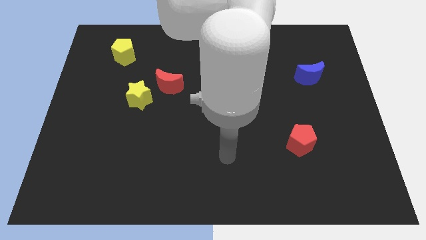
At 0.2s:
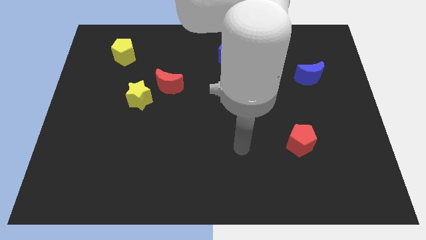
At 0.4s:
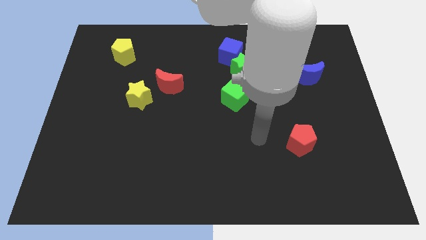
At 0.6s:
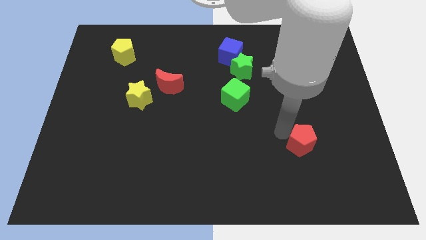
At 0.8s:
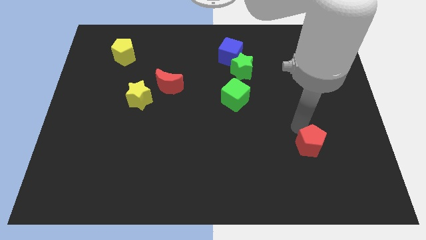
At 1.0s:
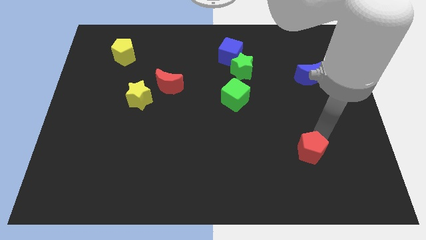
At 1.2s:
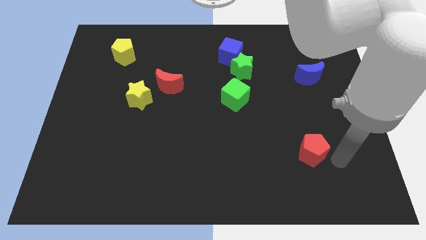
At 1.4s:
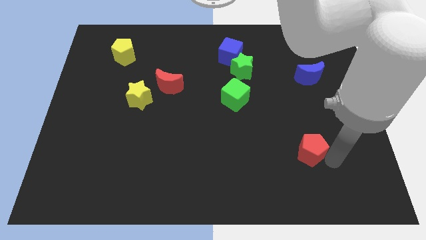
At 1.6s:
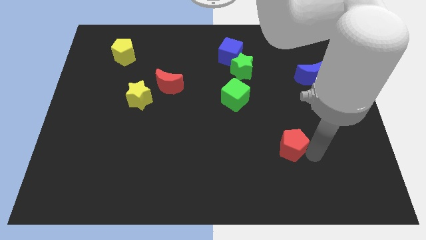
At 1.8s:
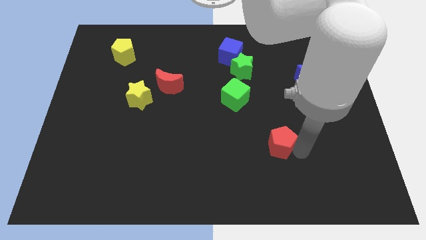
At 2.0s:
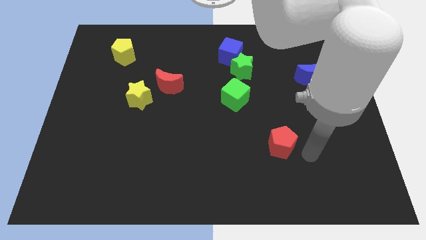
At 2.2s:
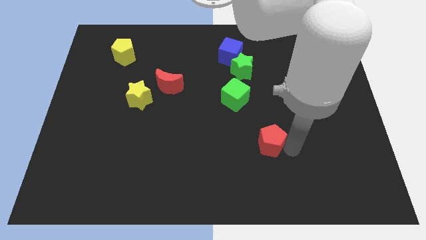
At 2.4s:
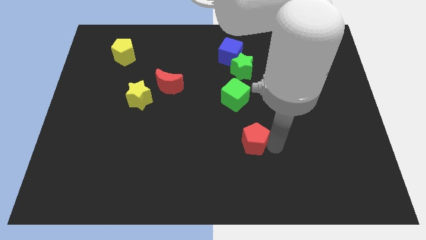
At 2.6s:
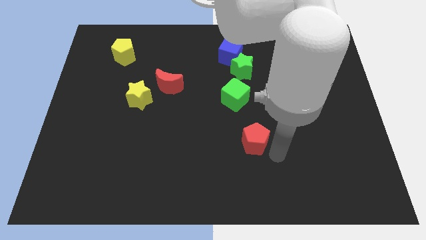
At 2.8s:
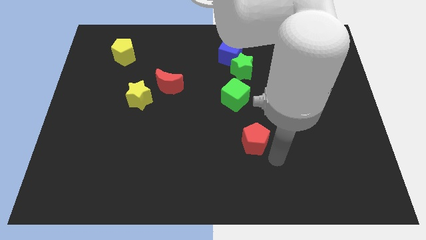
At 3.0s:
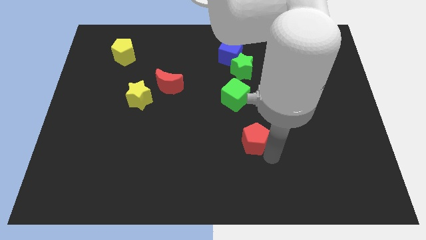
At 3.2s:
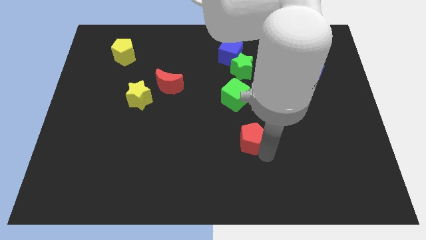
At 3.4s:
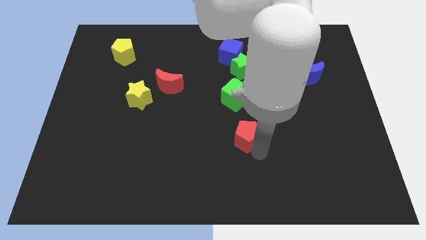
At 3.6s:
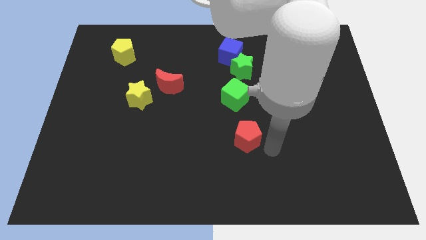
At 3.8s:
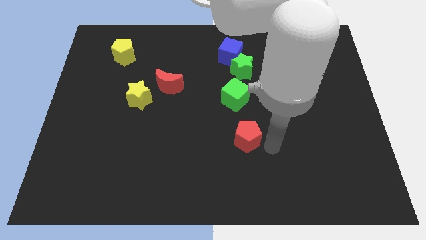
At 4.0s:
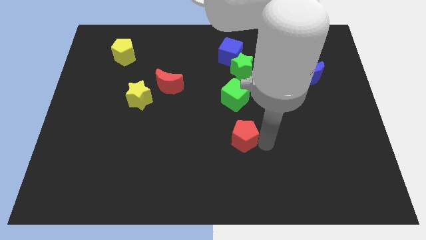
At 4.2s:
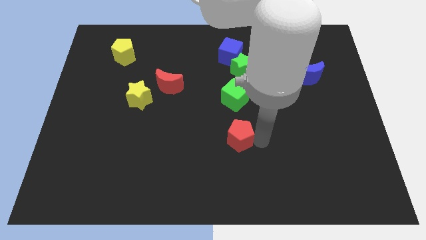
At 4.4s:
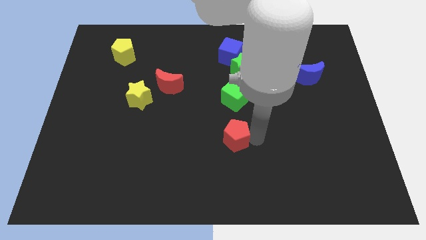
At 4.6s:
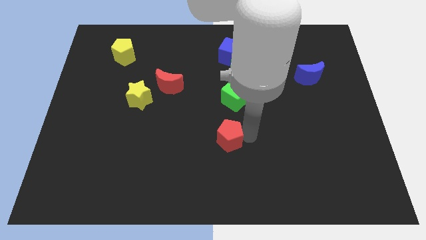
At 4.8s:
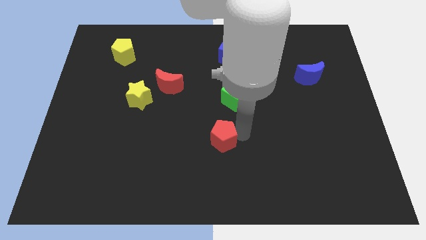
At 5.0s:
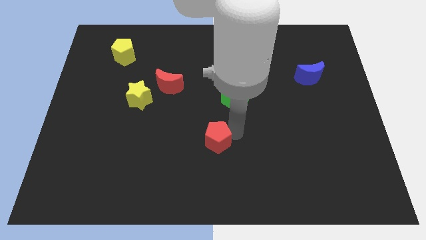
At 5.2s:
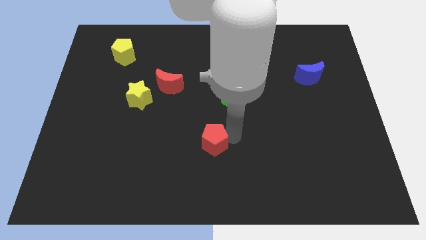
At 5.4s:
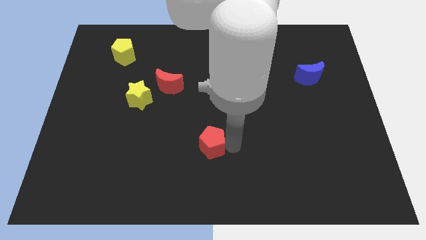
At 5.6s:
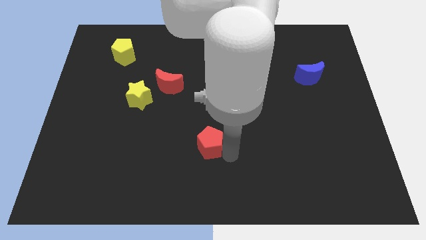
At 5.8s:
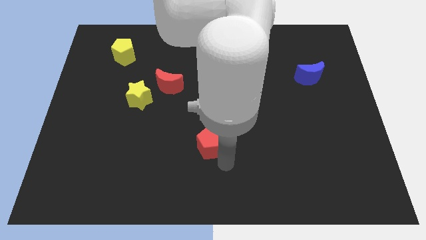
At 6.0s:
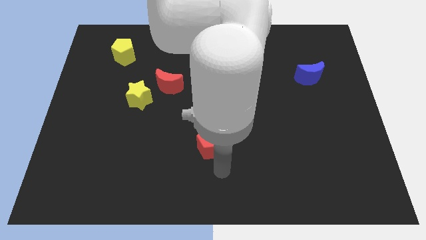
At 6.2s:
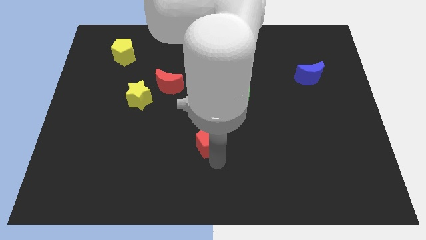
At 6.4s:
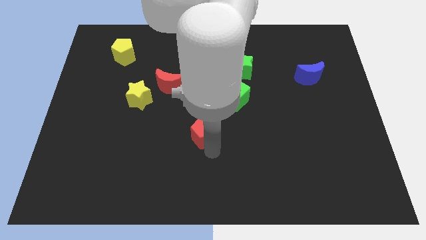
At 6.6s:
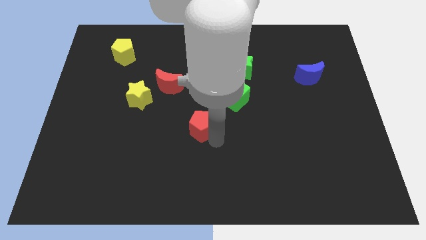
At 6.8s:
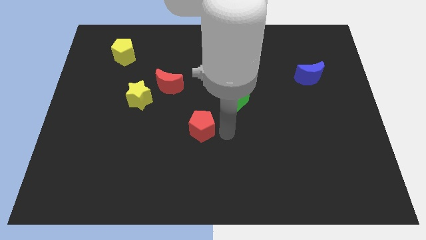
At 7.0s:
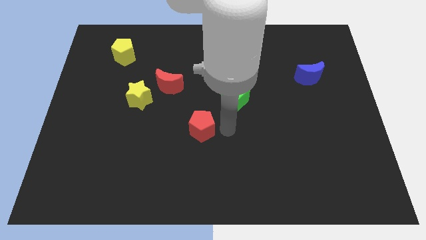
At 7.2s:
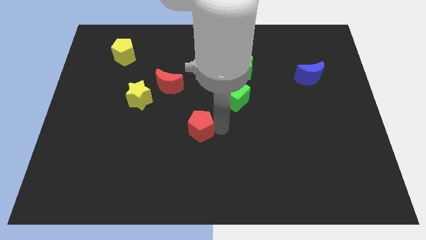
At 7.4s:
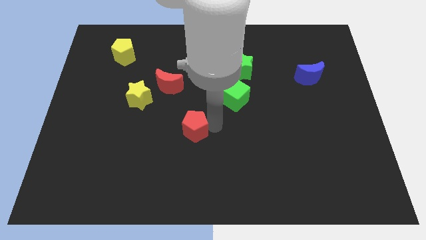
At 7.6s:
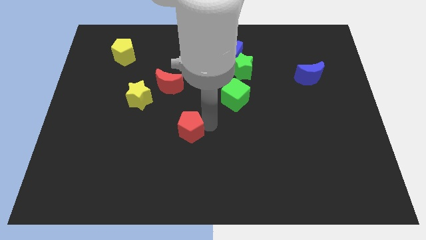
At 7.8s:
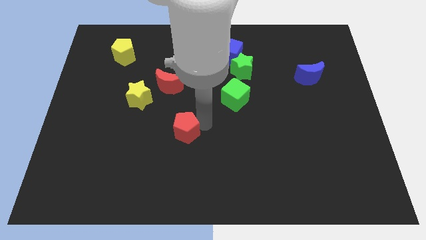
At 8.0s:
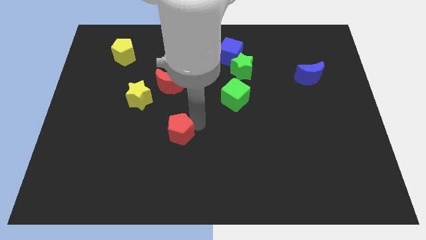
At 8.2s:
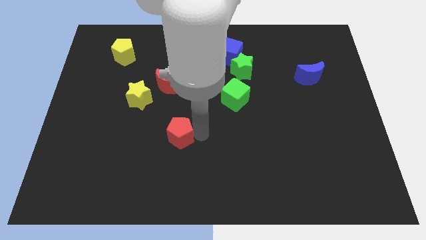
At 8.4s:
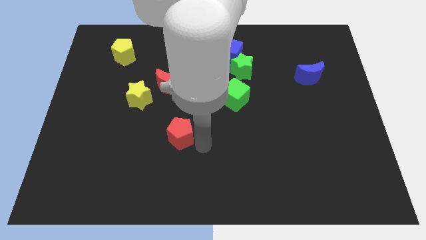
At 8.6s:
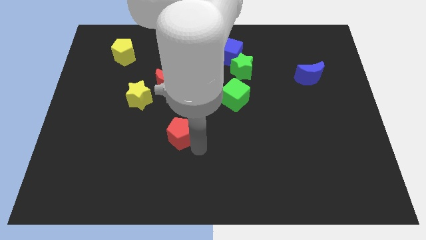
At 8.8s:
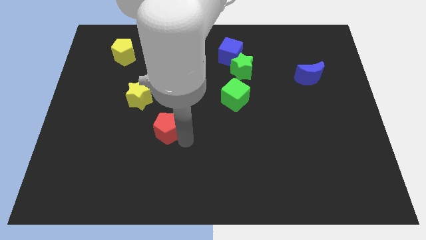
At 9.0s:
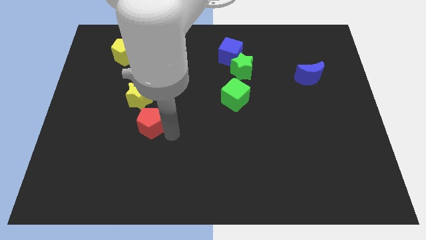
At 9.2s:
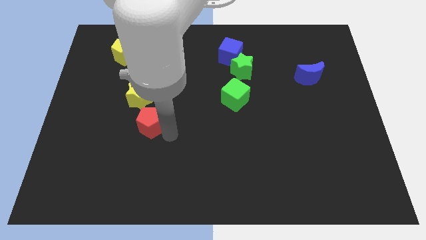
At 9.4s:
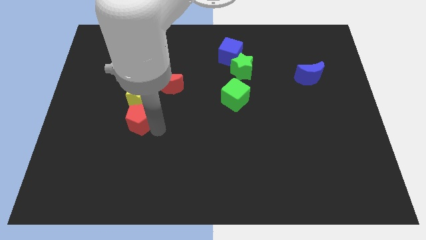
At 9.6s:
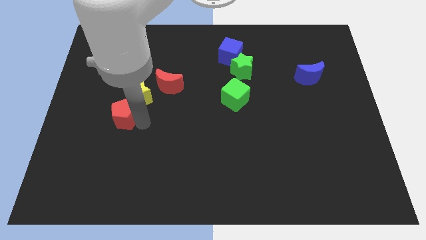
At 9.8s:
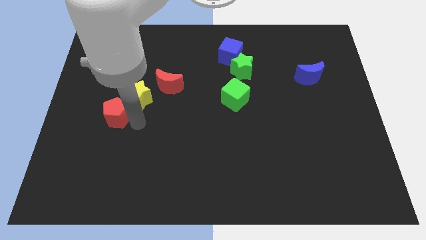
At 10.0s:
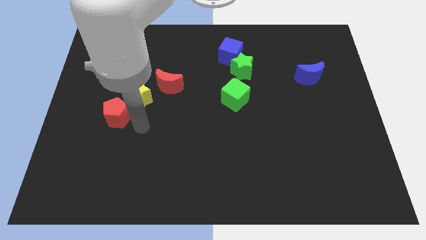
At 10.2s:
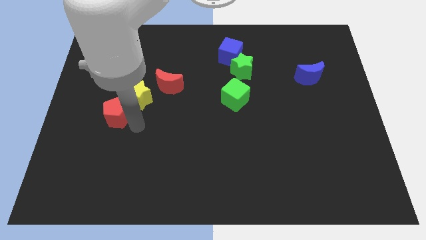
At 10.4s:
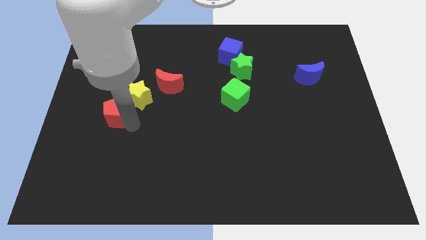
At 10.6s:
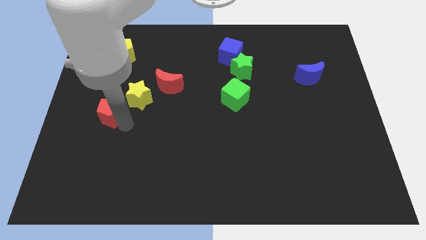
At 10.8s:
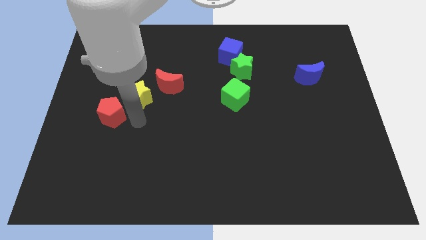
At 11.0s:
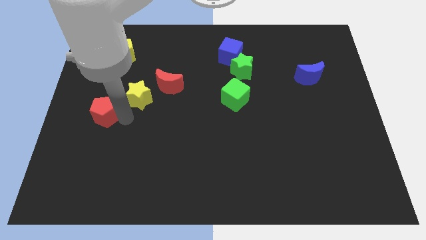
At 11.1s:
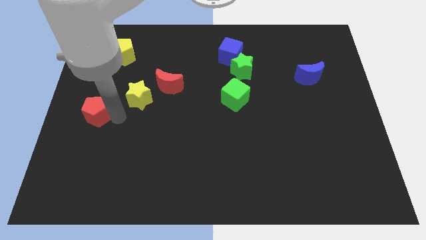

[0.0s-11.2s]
slide the red pentagon to the left side

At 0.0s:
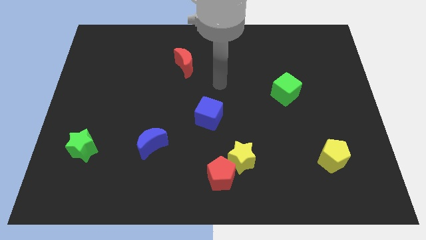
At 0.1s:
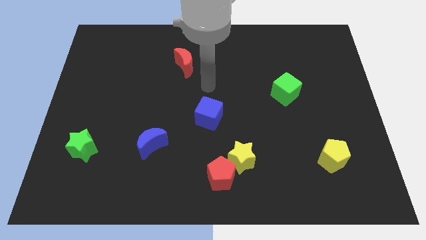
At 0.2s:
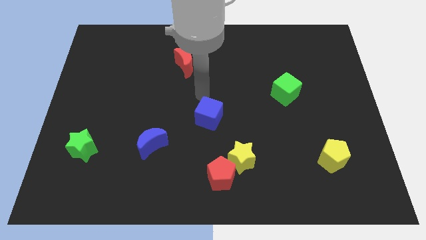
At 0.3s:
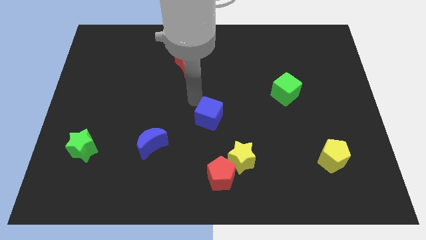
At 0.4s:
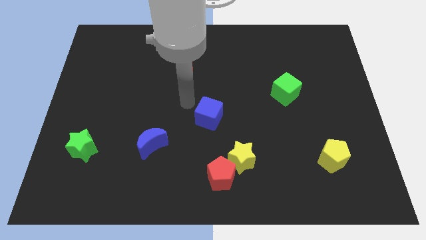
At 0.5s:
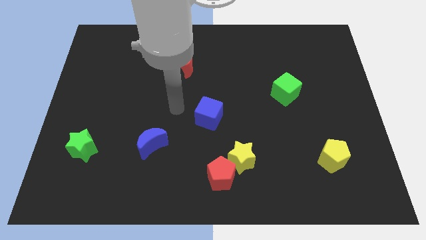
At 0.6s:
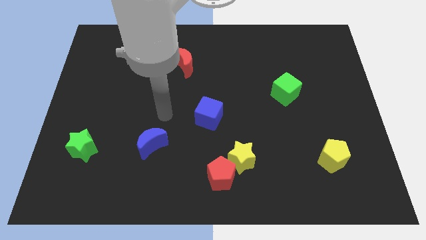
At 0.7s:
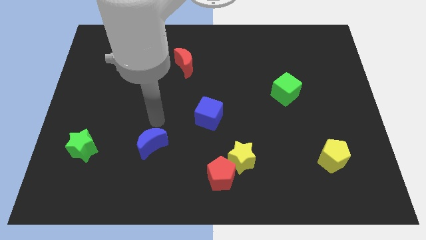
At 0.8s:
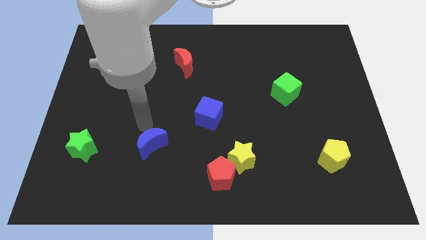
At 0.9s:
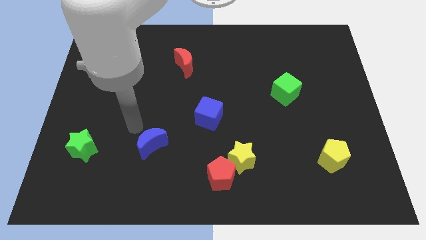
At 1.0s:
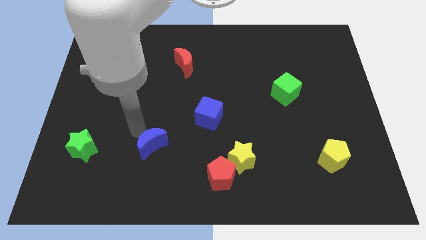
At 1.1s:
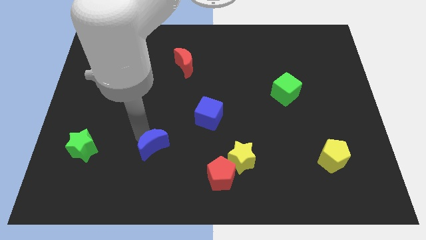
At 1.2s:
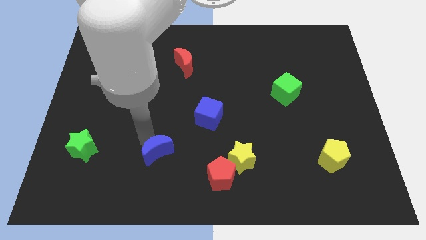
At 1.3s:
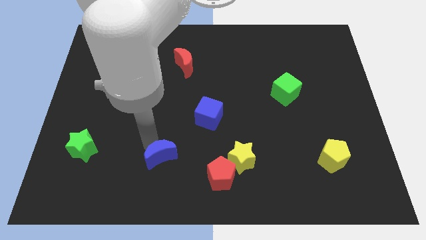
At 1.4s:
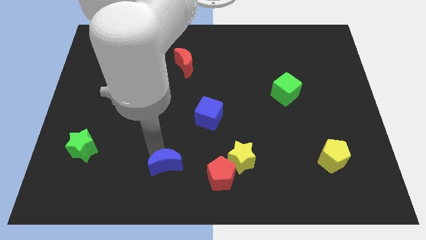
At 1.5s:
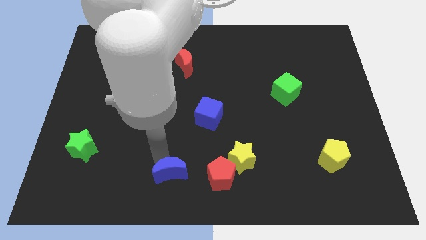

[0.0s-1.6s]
move the blue moon to the bottom

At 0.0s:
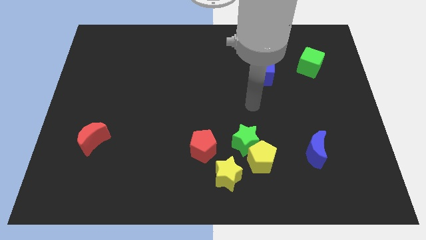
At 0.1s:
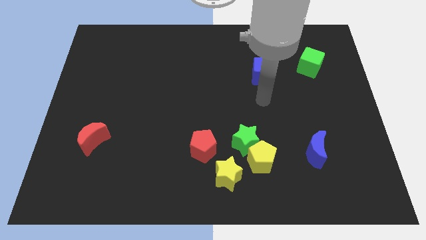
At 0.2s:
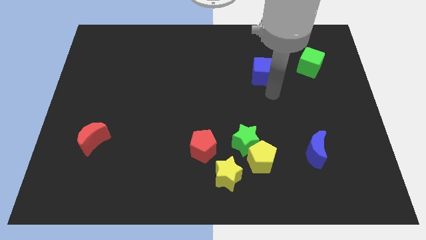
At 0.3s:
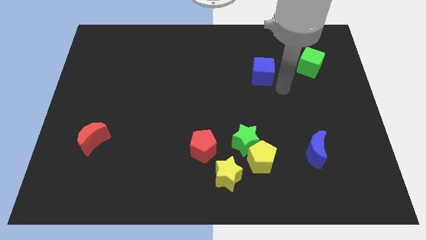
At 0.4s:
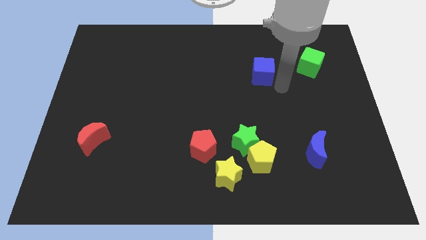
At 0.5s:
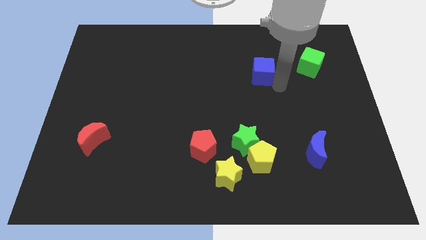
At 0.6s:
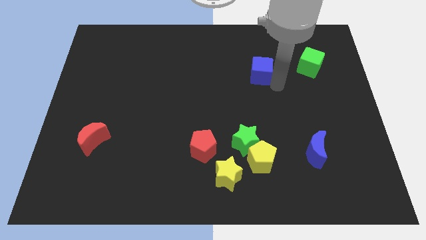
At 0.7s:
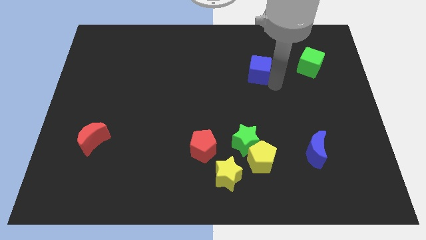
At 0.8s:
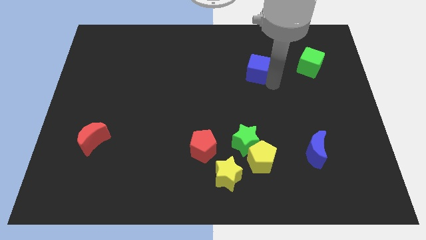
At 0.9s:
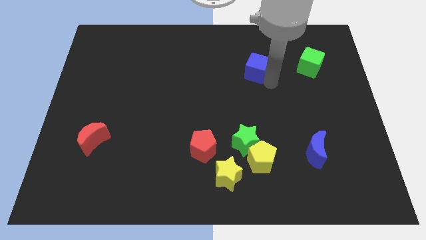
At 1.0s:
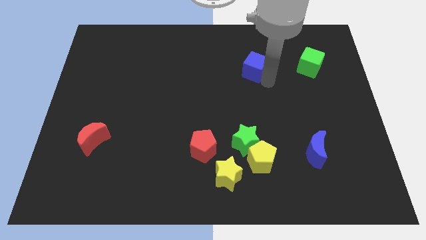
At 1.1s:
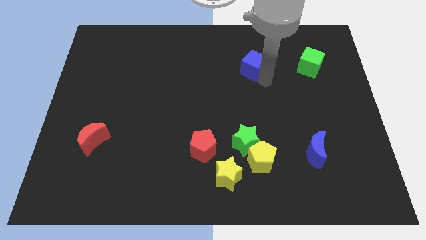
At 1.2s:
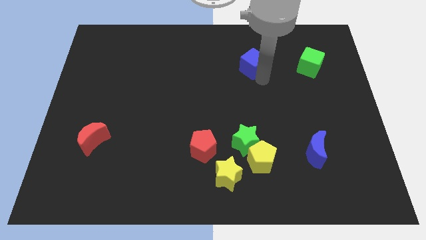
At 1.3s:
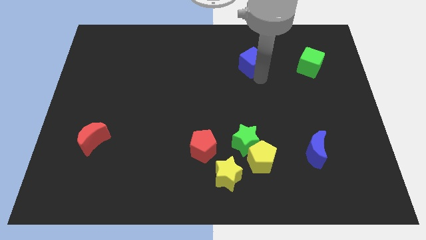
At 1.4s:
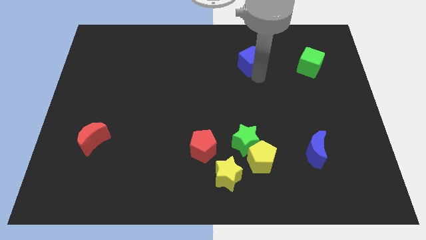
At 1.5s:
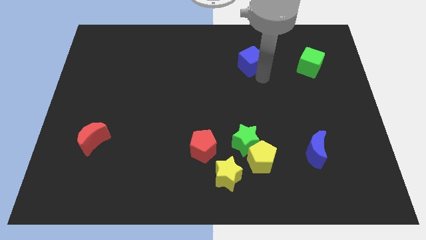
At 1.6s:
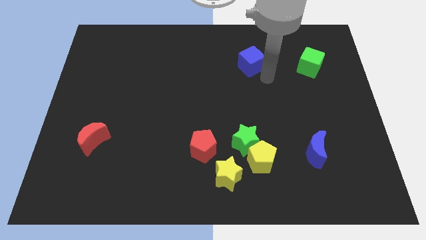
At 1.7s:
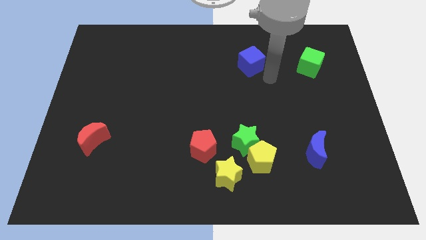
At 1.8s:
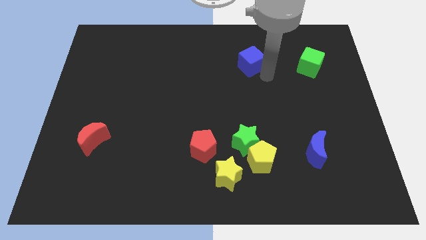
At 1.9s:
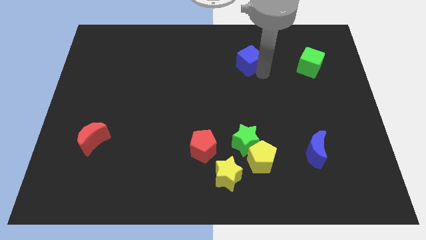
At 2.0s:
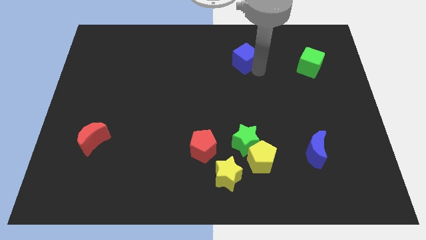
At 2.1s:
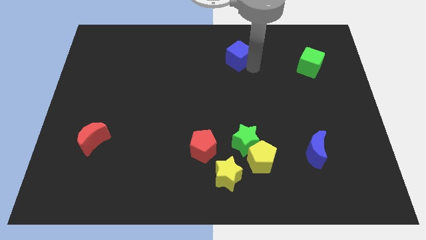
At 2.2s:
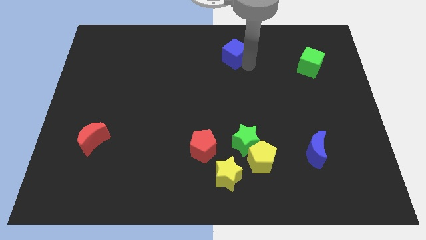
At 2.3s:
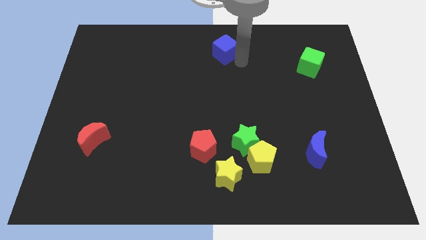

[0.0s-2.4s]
move the blue cube to the top
